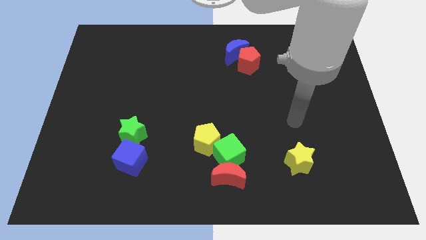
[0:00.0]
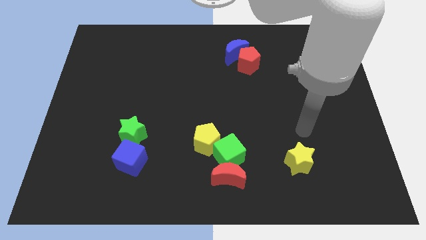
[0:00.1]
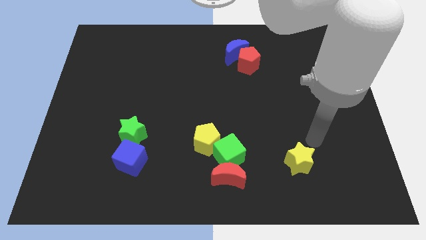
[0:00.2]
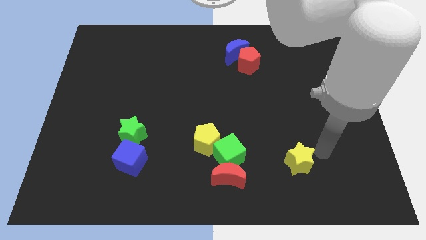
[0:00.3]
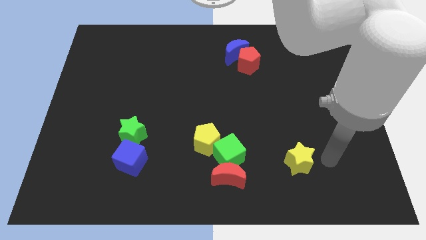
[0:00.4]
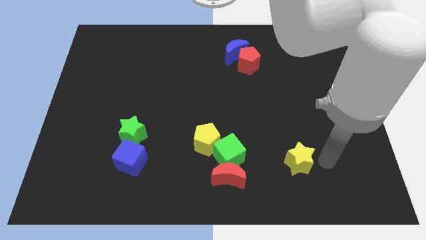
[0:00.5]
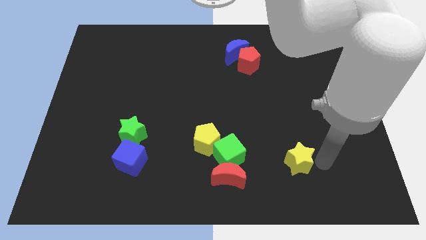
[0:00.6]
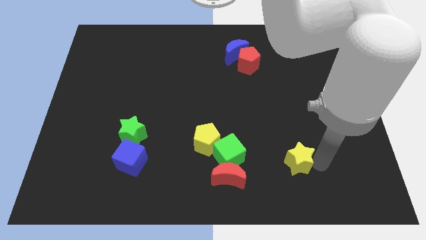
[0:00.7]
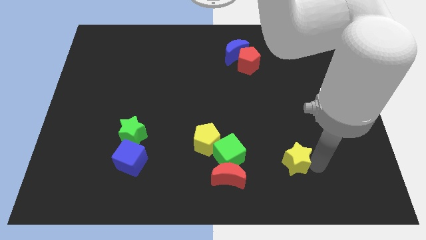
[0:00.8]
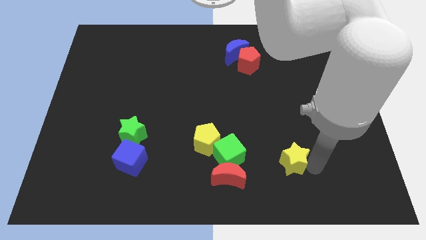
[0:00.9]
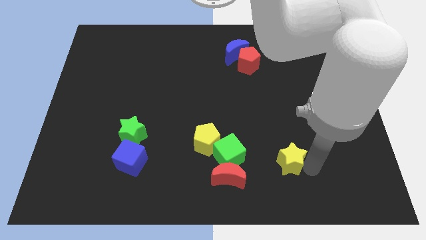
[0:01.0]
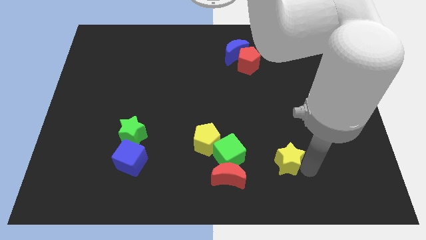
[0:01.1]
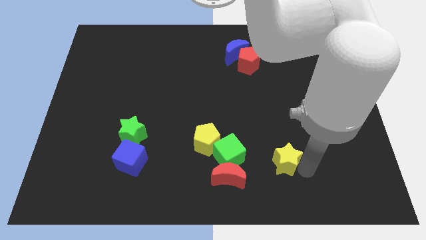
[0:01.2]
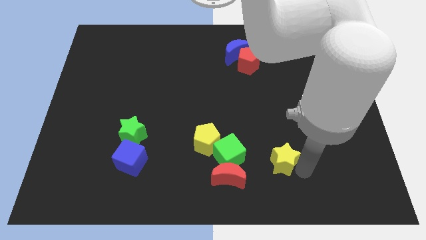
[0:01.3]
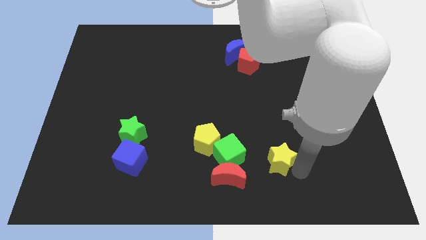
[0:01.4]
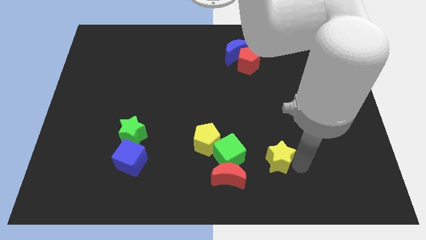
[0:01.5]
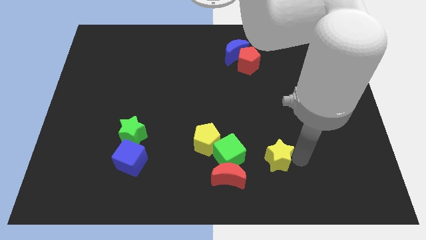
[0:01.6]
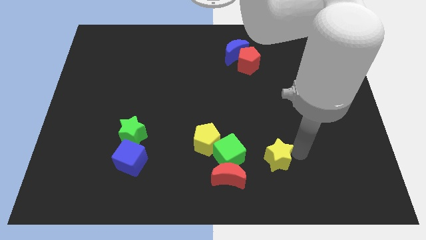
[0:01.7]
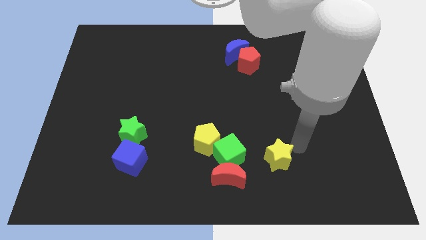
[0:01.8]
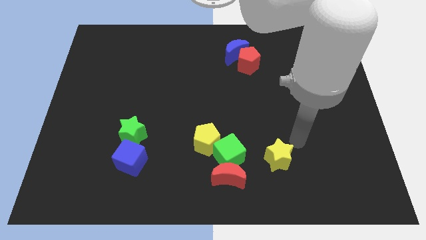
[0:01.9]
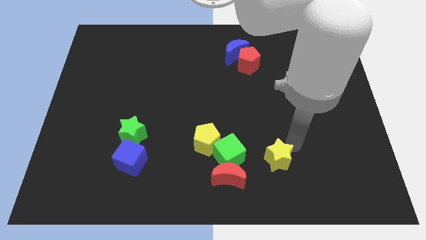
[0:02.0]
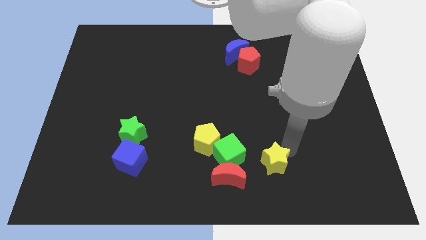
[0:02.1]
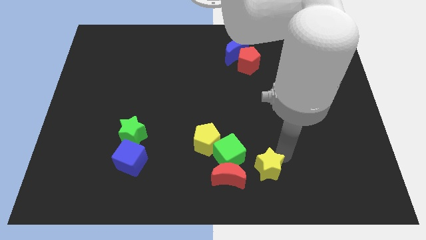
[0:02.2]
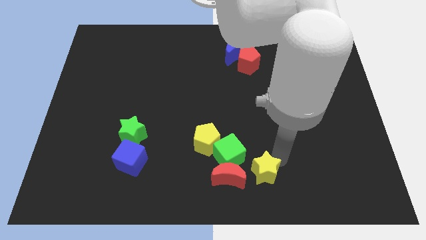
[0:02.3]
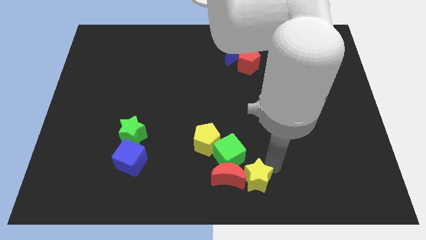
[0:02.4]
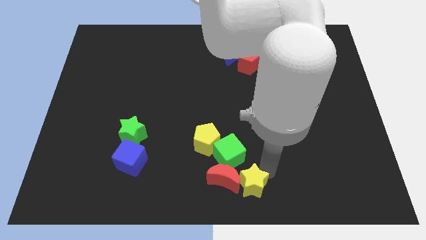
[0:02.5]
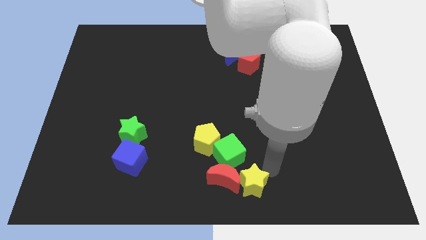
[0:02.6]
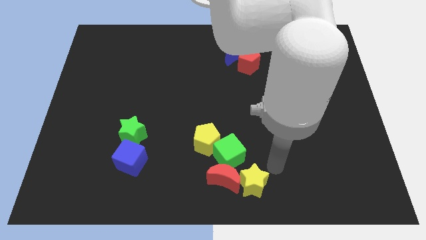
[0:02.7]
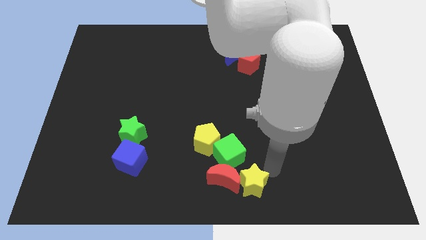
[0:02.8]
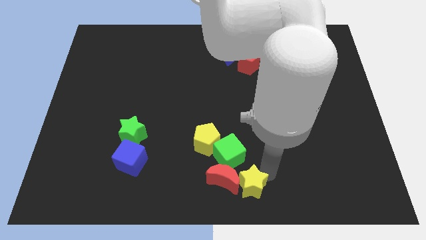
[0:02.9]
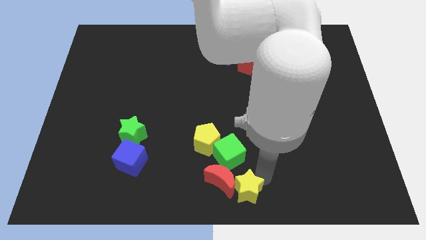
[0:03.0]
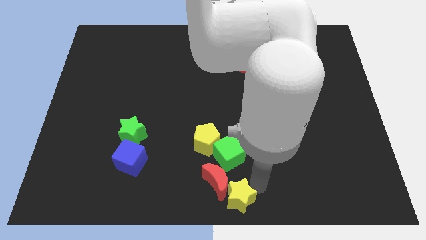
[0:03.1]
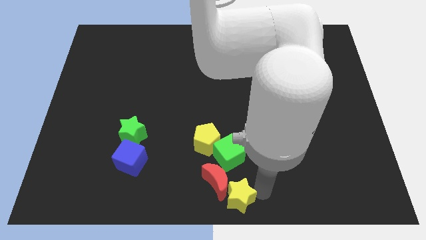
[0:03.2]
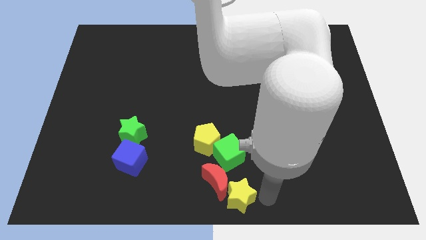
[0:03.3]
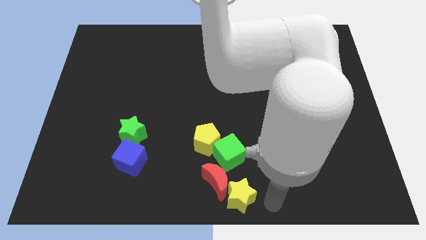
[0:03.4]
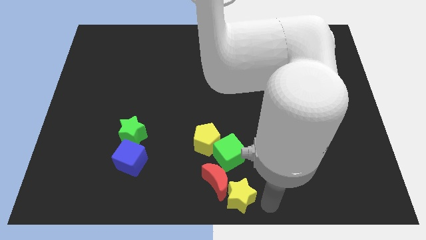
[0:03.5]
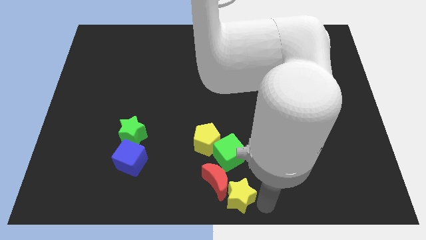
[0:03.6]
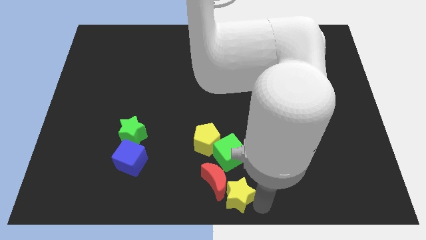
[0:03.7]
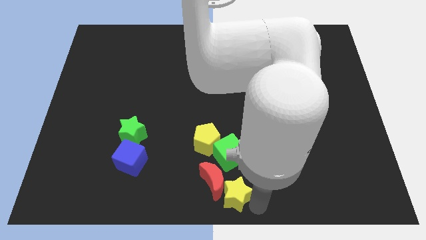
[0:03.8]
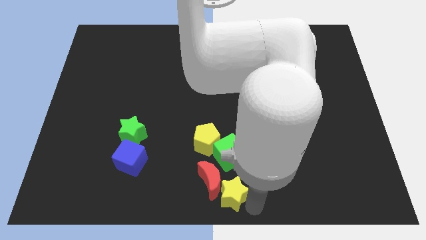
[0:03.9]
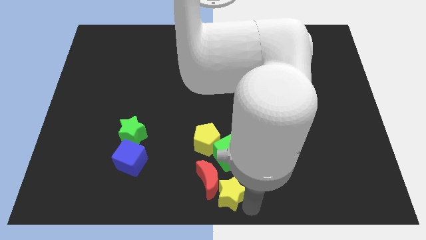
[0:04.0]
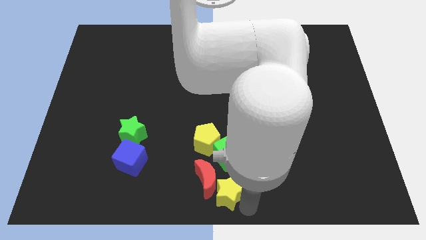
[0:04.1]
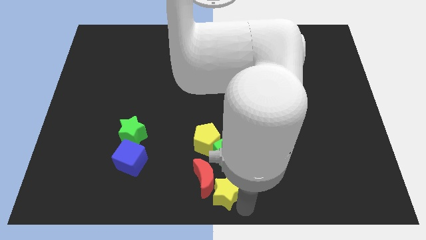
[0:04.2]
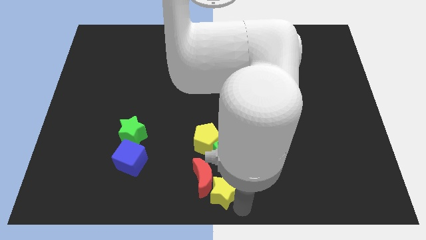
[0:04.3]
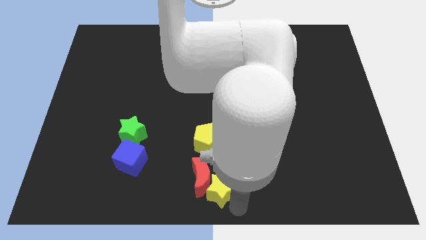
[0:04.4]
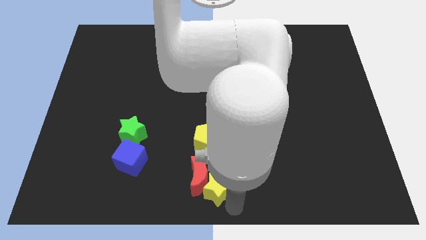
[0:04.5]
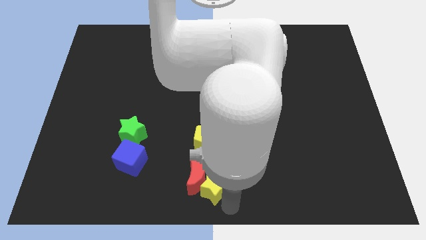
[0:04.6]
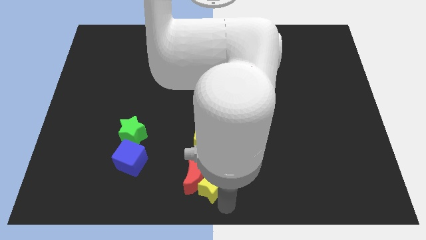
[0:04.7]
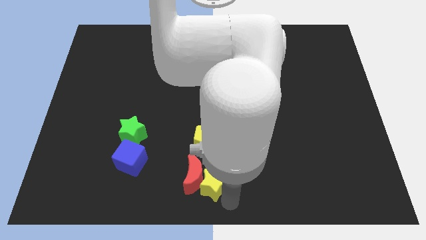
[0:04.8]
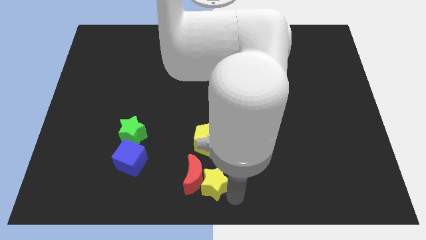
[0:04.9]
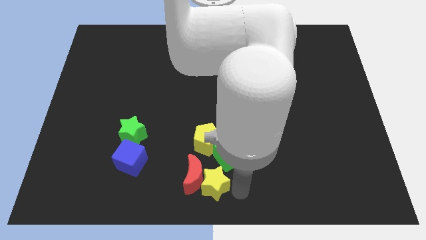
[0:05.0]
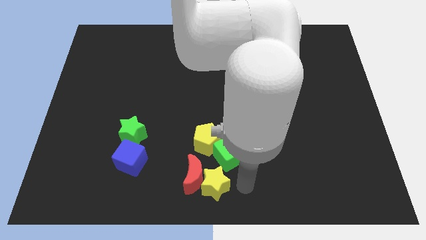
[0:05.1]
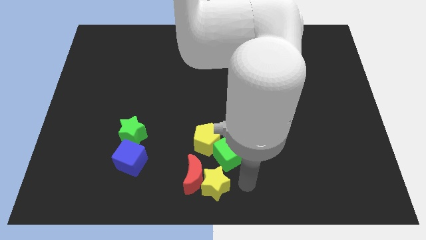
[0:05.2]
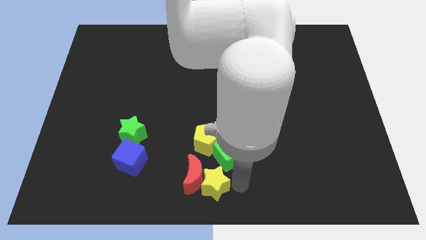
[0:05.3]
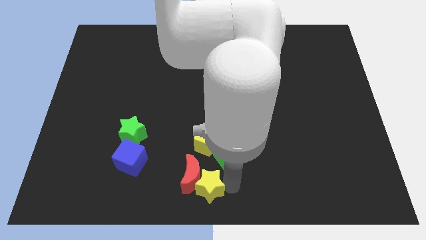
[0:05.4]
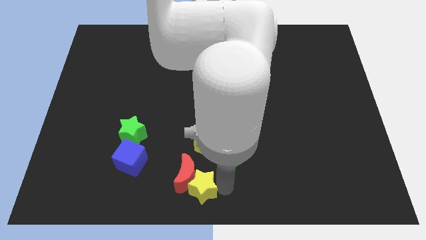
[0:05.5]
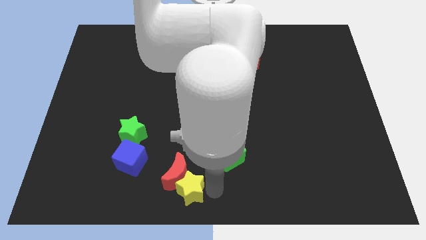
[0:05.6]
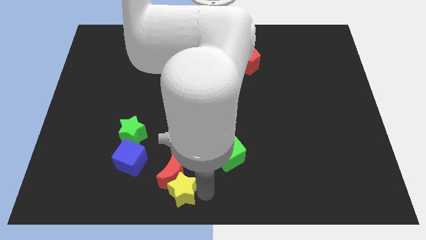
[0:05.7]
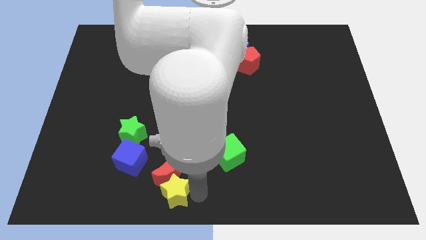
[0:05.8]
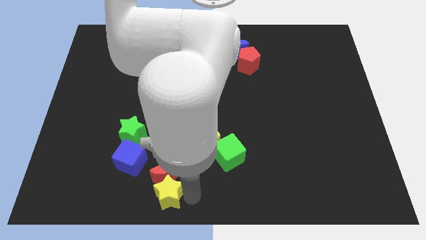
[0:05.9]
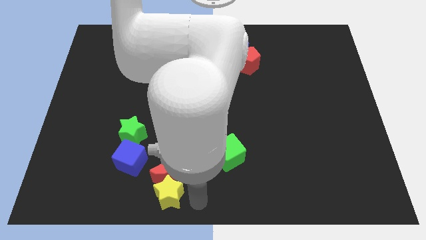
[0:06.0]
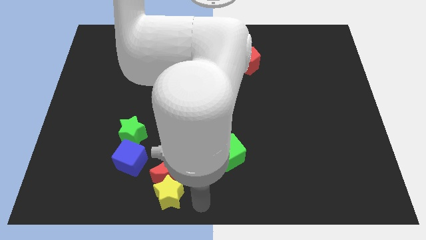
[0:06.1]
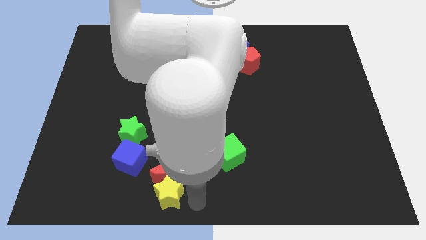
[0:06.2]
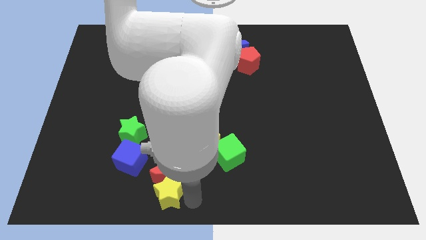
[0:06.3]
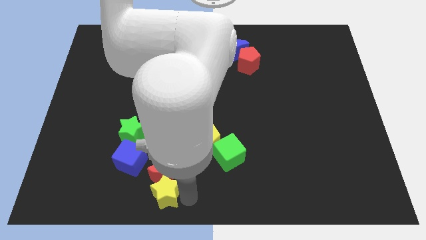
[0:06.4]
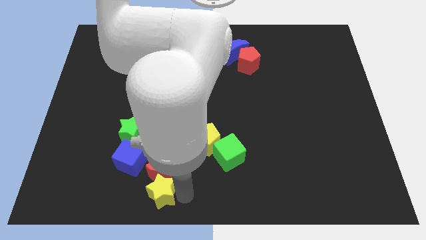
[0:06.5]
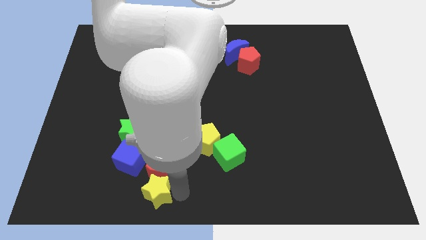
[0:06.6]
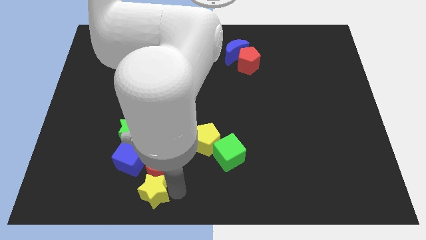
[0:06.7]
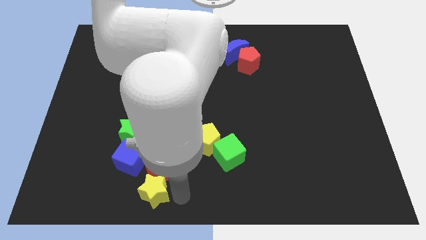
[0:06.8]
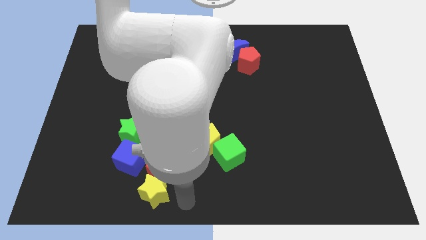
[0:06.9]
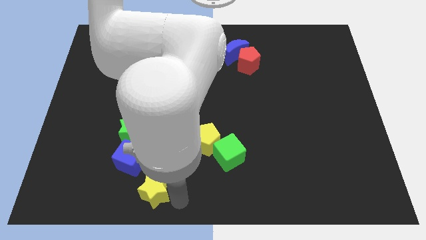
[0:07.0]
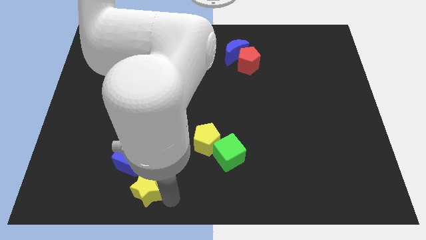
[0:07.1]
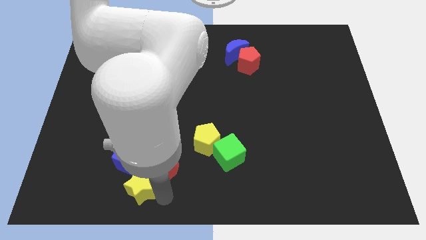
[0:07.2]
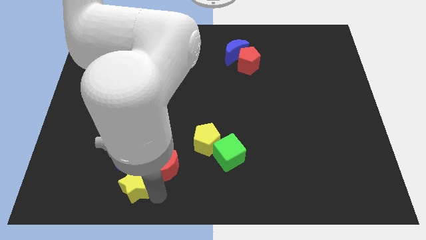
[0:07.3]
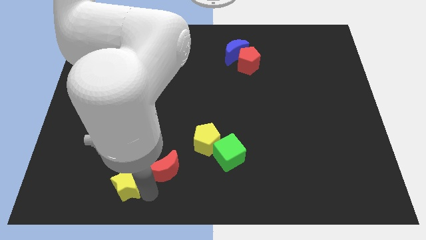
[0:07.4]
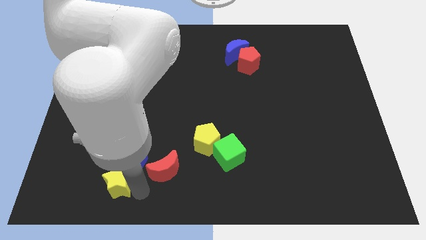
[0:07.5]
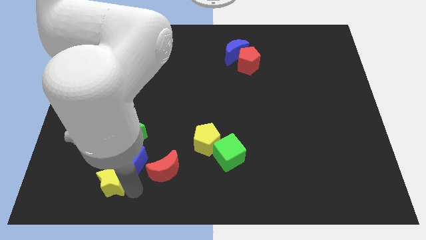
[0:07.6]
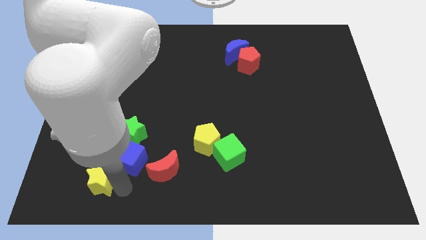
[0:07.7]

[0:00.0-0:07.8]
push the yellow star left of the blue cube
